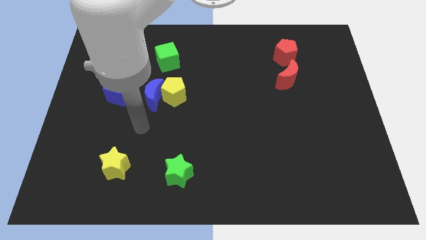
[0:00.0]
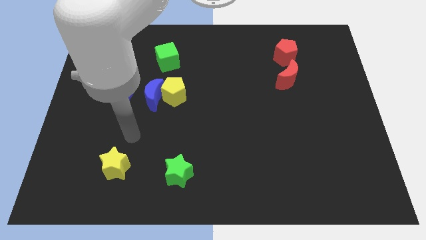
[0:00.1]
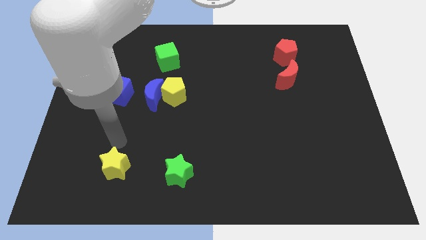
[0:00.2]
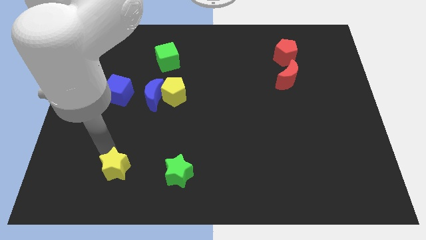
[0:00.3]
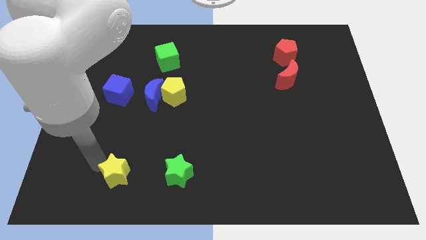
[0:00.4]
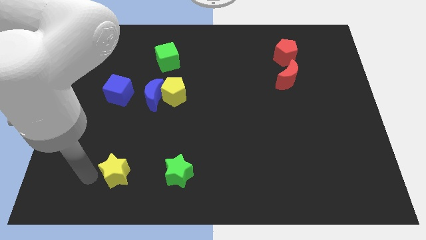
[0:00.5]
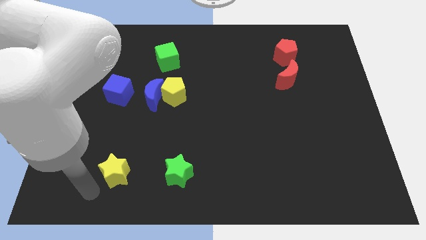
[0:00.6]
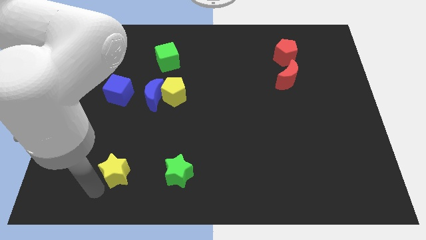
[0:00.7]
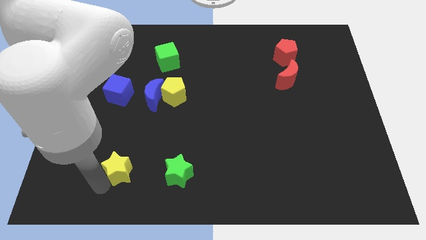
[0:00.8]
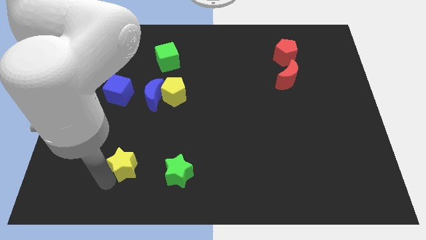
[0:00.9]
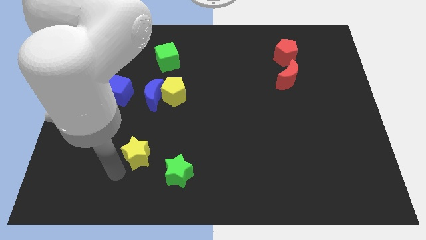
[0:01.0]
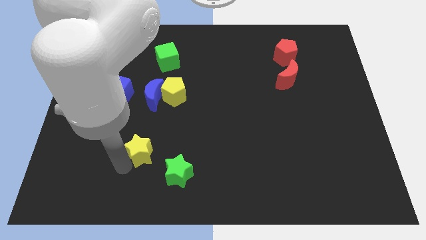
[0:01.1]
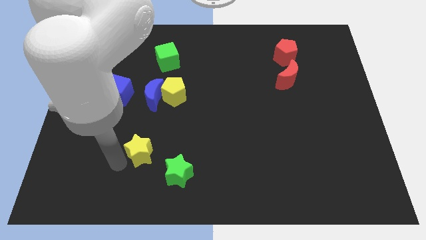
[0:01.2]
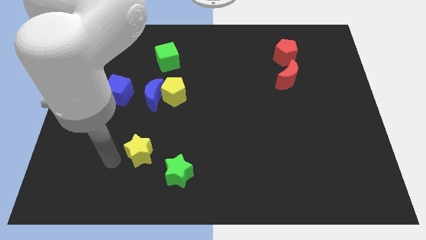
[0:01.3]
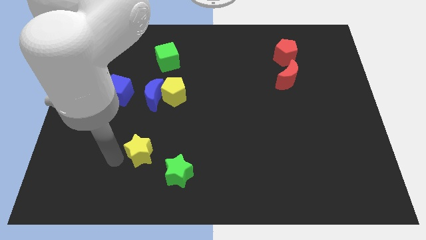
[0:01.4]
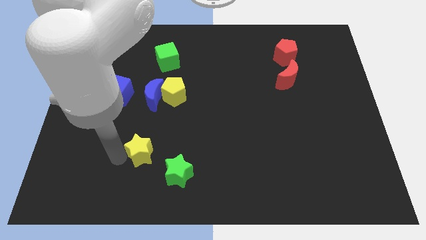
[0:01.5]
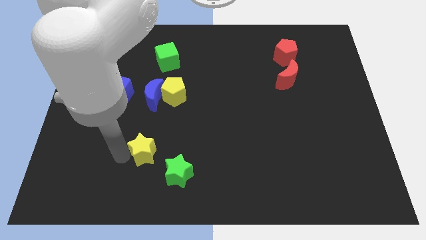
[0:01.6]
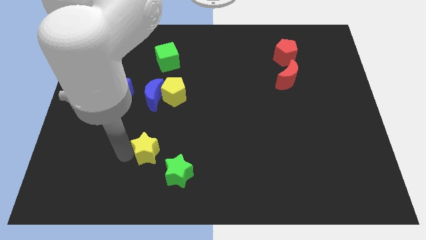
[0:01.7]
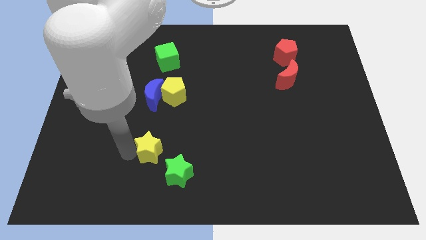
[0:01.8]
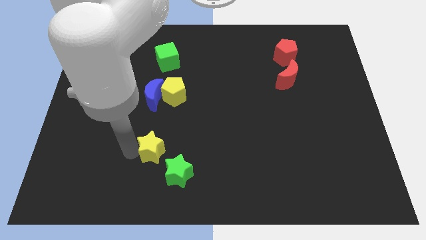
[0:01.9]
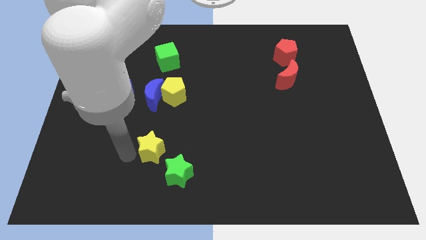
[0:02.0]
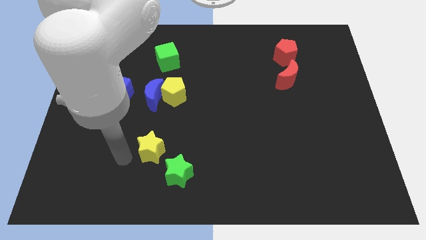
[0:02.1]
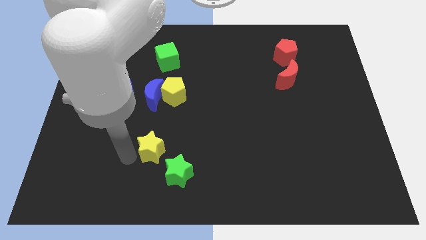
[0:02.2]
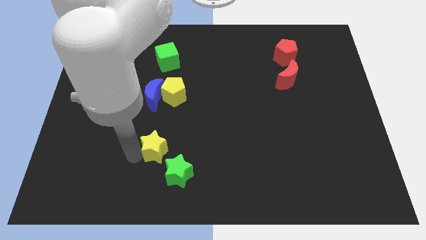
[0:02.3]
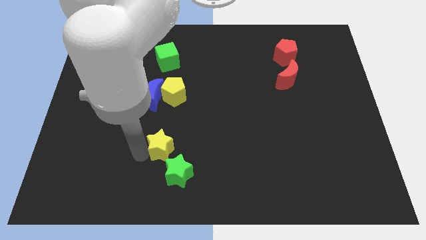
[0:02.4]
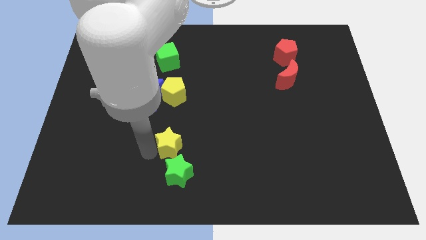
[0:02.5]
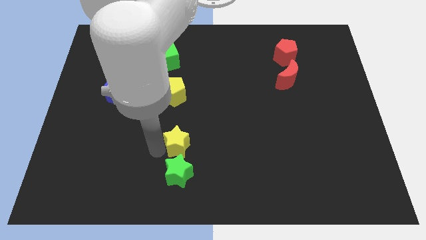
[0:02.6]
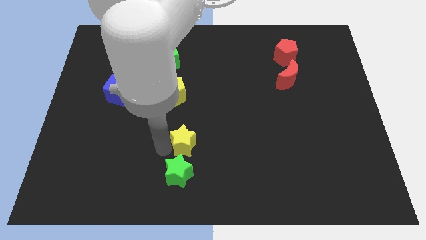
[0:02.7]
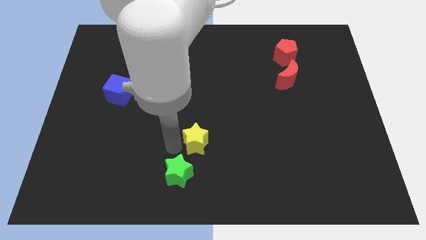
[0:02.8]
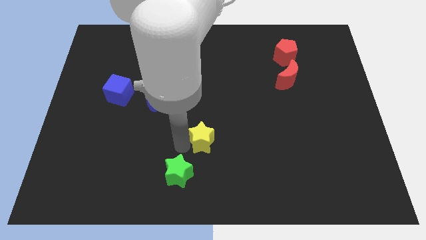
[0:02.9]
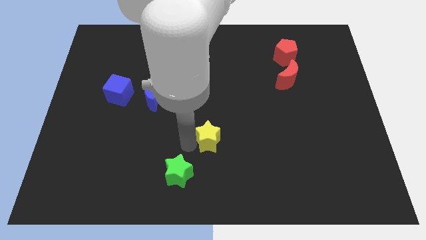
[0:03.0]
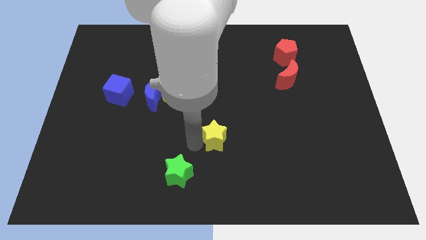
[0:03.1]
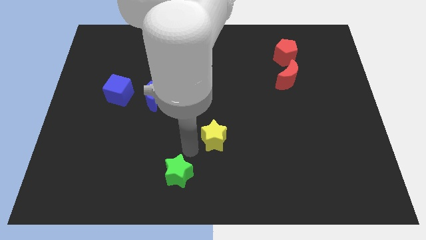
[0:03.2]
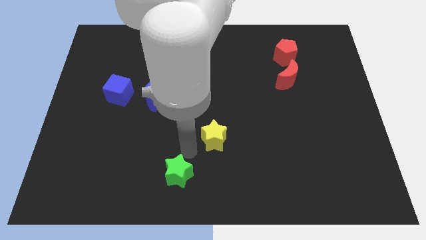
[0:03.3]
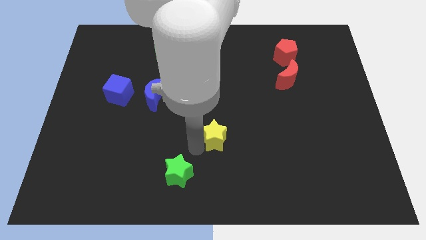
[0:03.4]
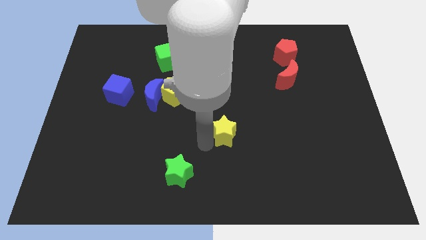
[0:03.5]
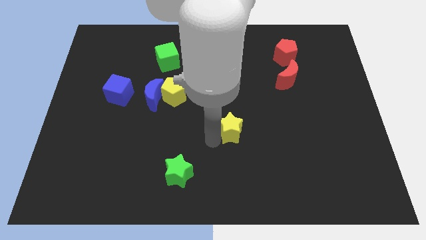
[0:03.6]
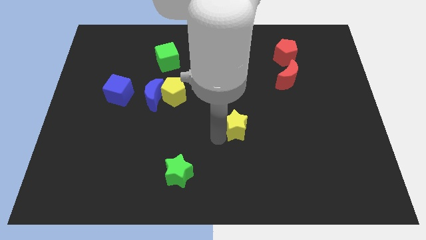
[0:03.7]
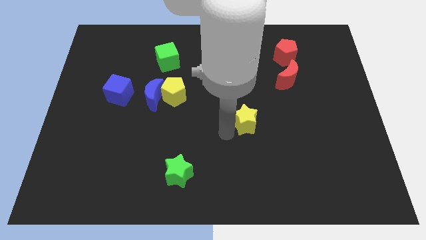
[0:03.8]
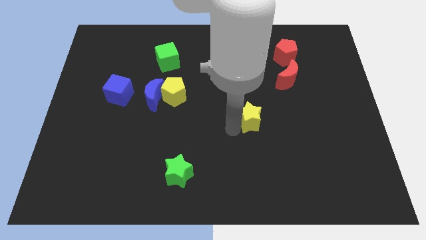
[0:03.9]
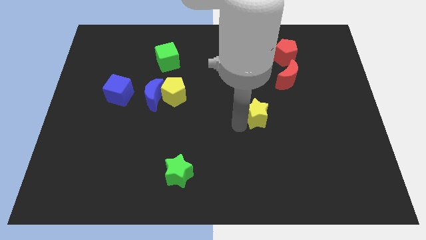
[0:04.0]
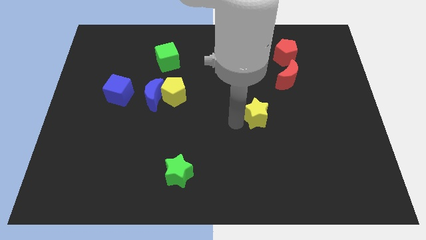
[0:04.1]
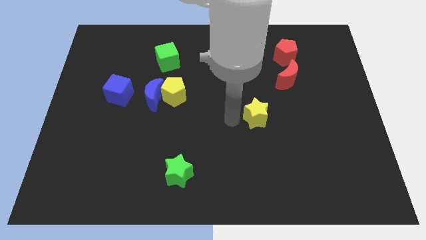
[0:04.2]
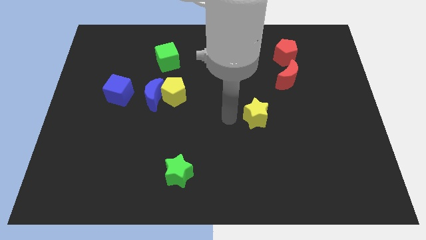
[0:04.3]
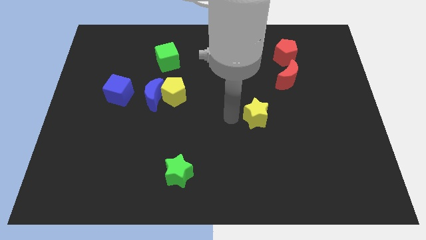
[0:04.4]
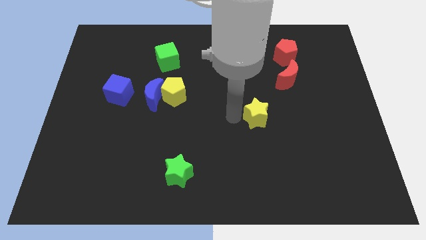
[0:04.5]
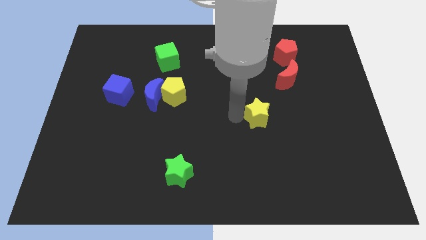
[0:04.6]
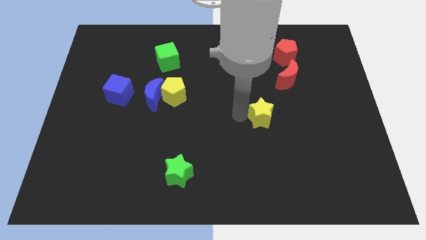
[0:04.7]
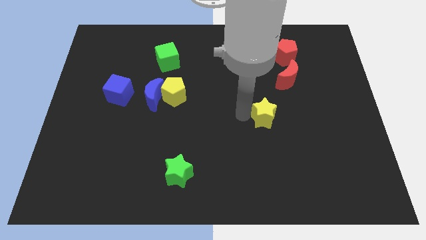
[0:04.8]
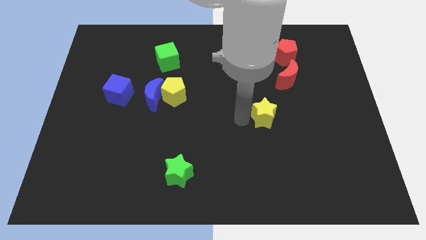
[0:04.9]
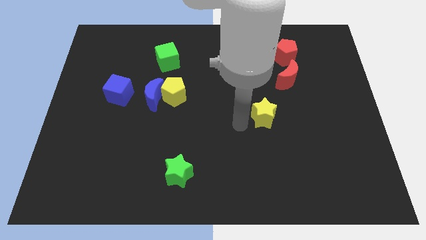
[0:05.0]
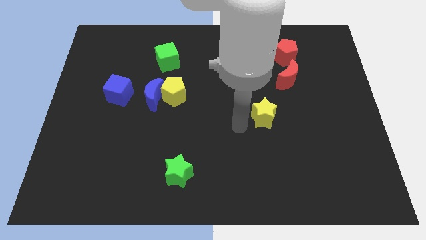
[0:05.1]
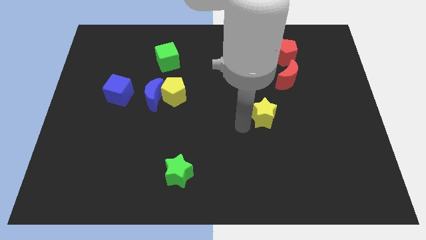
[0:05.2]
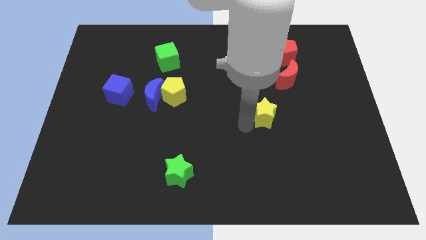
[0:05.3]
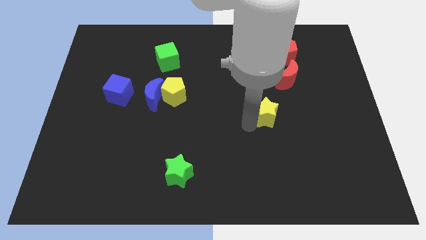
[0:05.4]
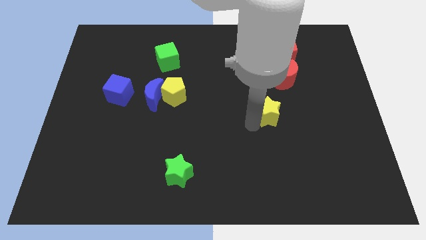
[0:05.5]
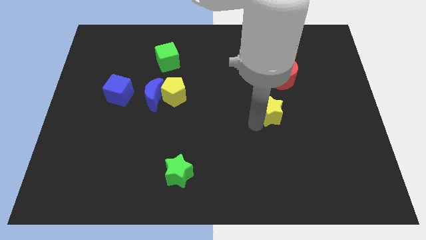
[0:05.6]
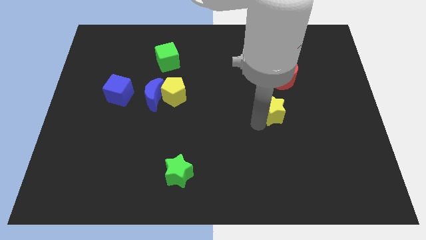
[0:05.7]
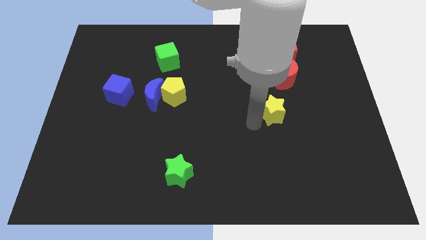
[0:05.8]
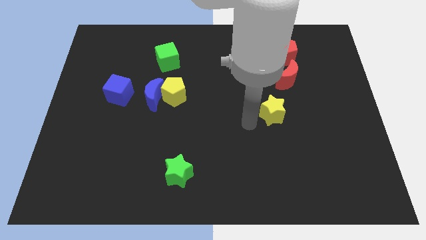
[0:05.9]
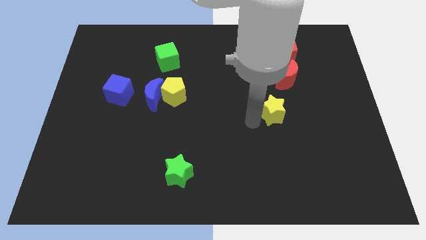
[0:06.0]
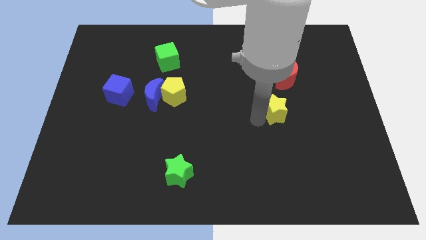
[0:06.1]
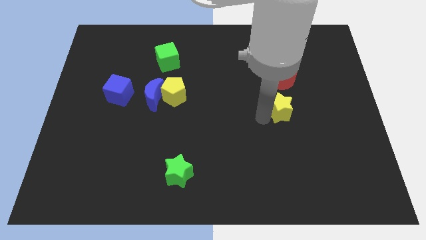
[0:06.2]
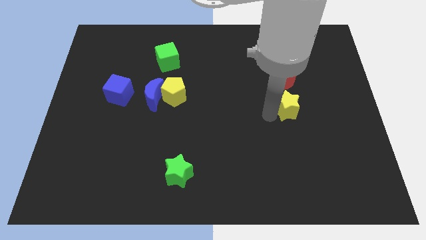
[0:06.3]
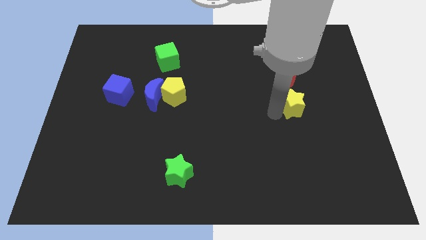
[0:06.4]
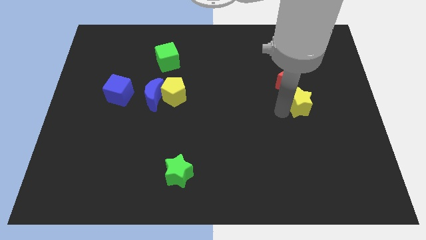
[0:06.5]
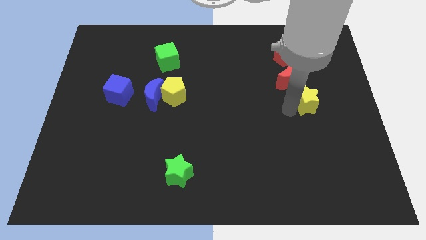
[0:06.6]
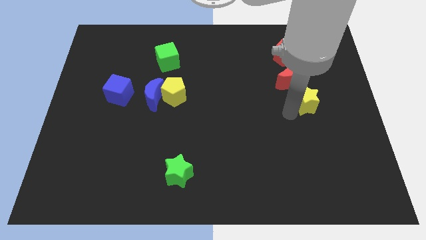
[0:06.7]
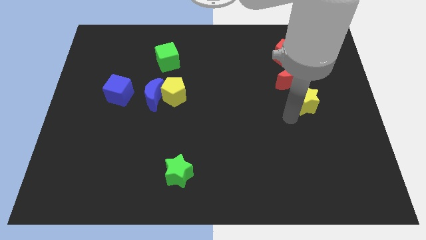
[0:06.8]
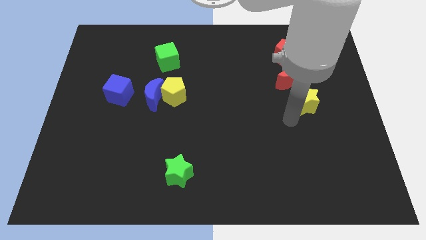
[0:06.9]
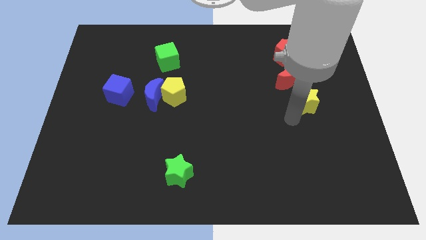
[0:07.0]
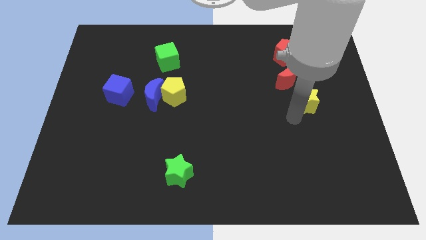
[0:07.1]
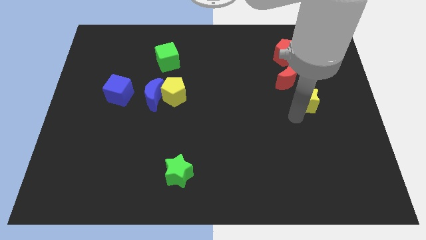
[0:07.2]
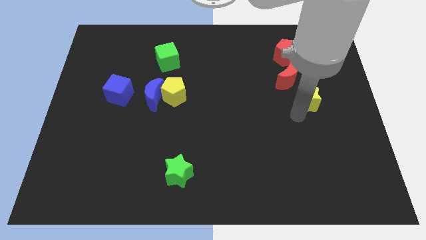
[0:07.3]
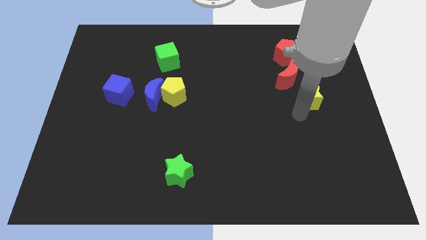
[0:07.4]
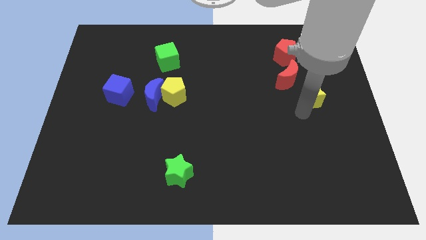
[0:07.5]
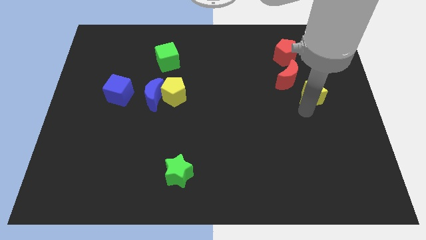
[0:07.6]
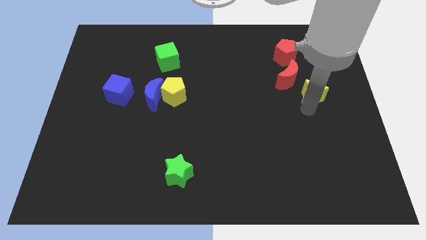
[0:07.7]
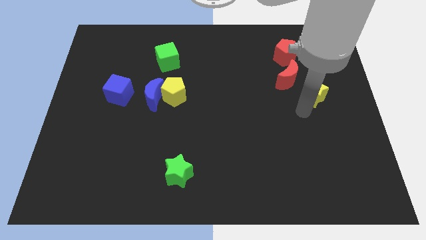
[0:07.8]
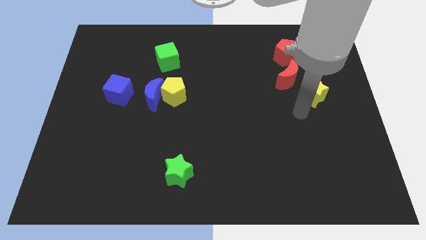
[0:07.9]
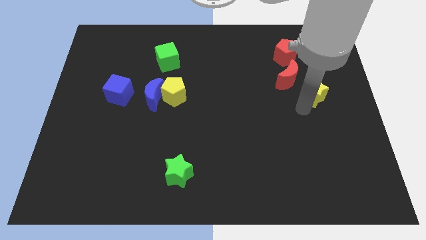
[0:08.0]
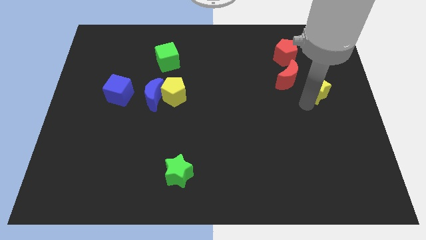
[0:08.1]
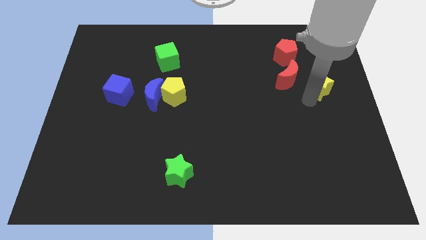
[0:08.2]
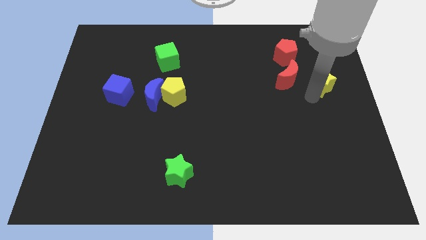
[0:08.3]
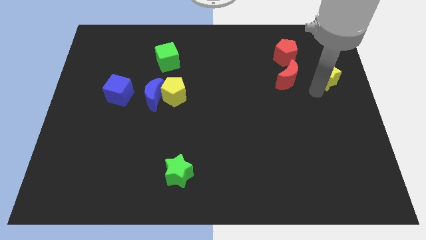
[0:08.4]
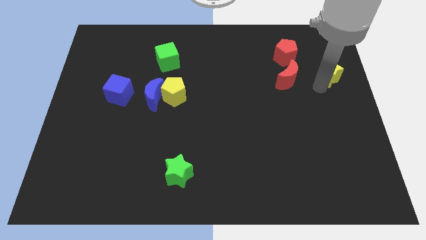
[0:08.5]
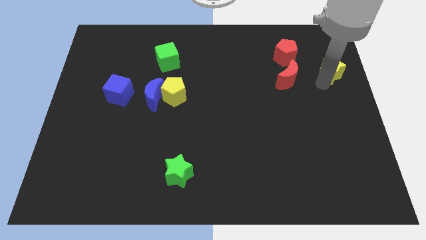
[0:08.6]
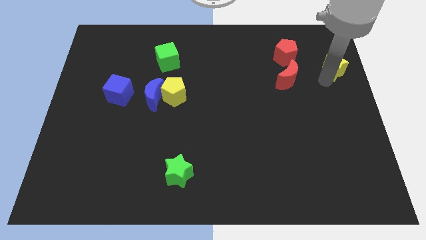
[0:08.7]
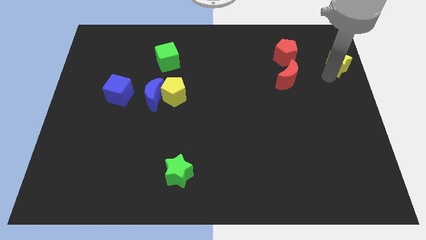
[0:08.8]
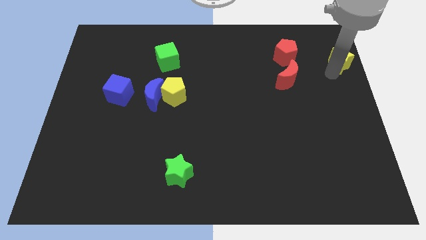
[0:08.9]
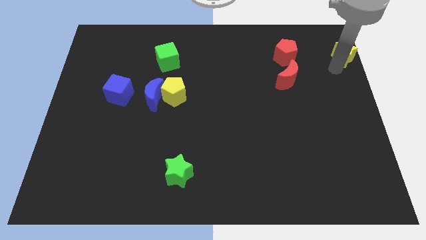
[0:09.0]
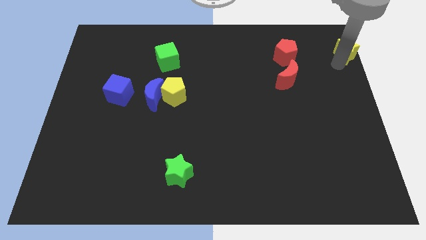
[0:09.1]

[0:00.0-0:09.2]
put the yellow star to the top right of the board
